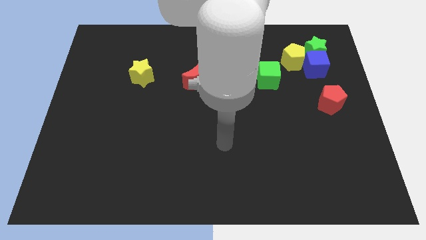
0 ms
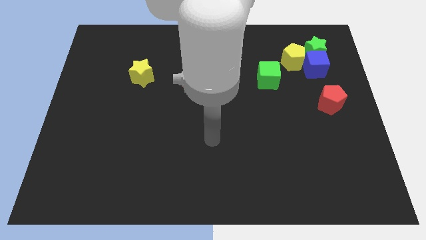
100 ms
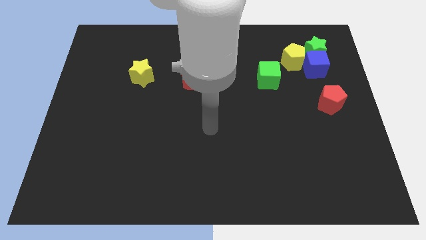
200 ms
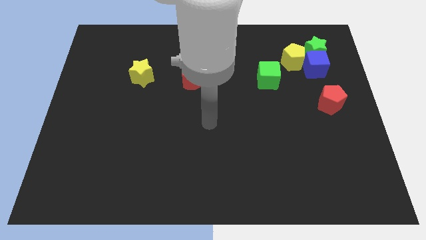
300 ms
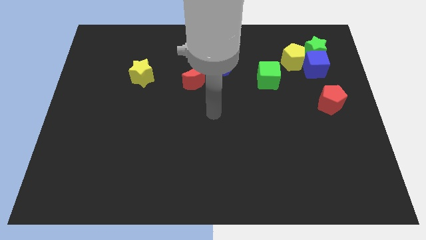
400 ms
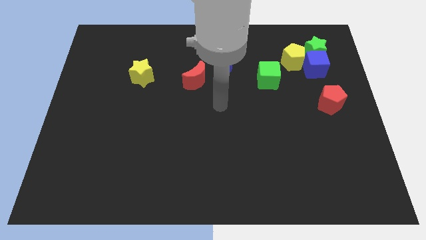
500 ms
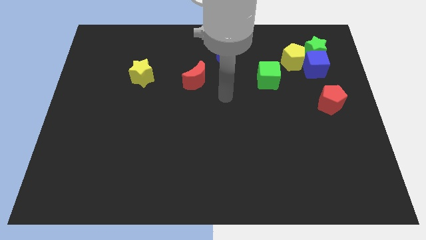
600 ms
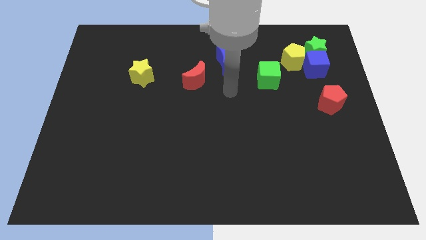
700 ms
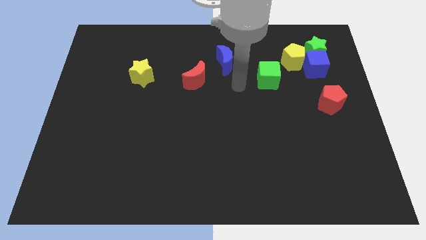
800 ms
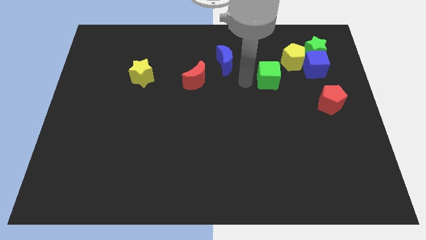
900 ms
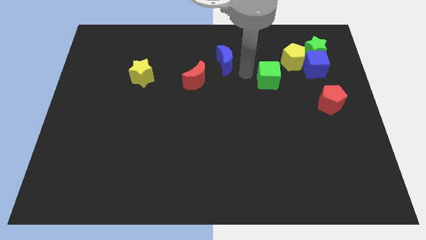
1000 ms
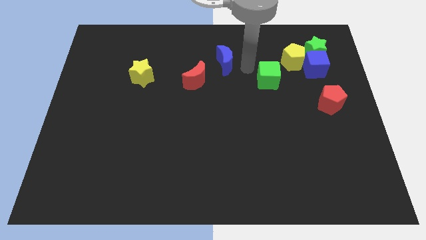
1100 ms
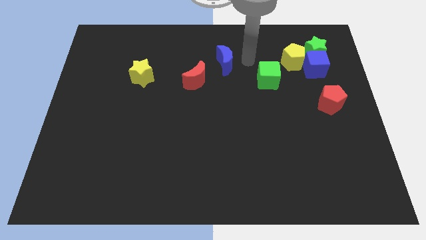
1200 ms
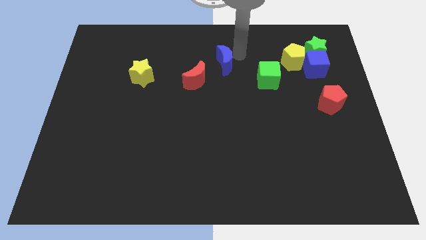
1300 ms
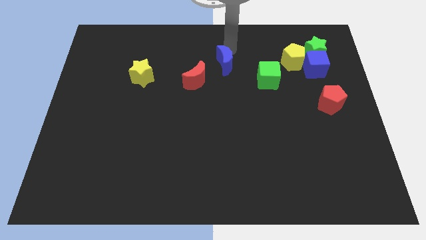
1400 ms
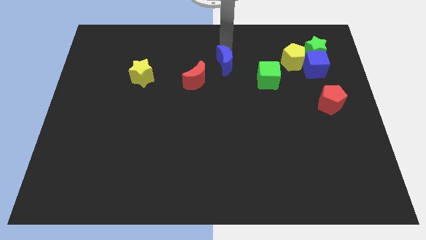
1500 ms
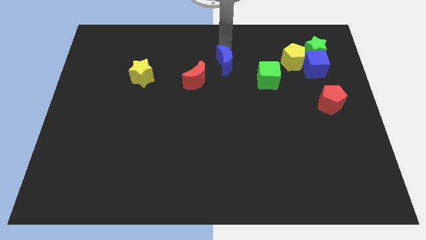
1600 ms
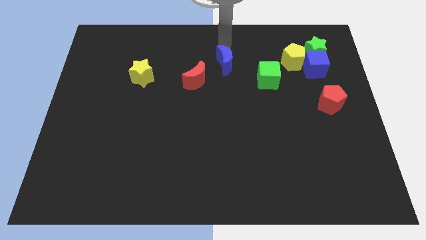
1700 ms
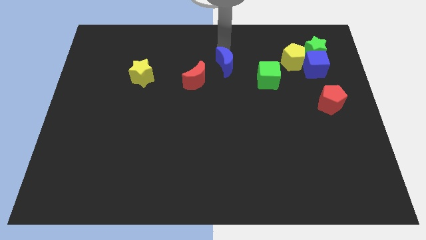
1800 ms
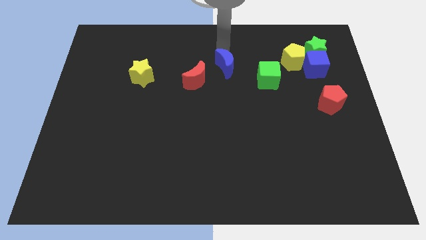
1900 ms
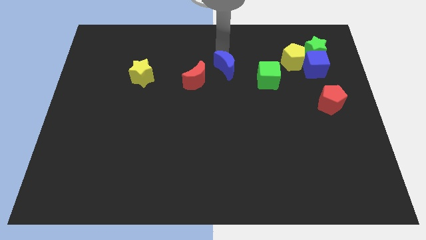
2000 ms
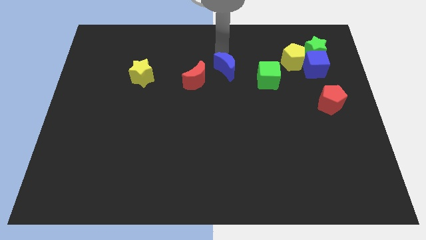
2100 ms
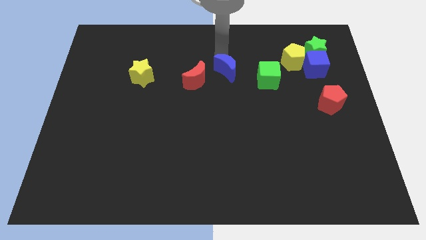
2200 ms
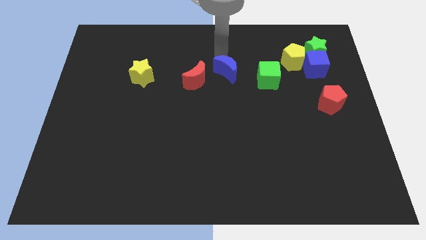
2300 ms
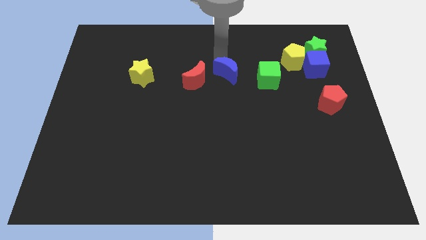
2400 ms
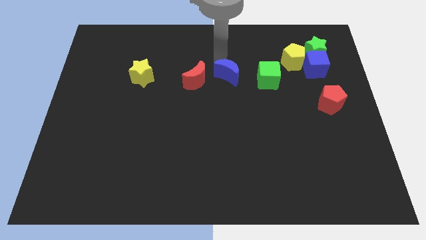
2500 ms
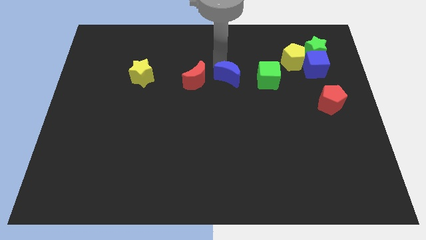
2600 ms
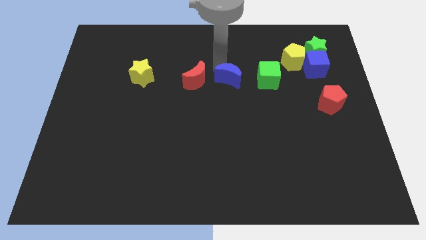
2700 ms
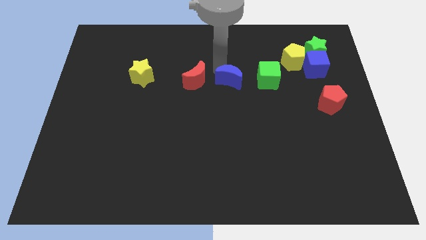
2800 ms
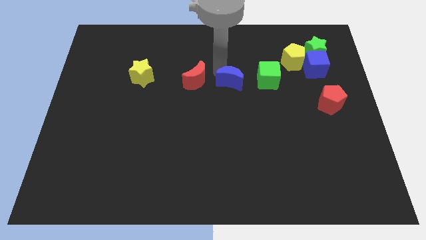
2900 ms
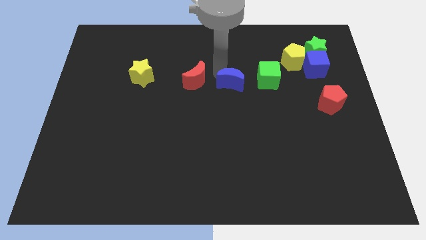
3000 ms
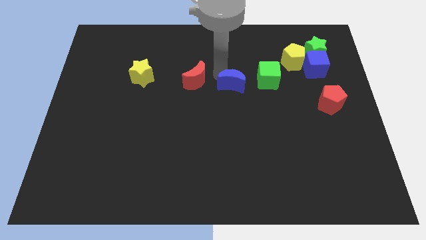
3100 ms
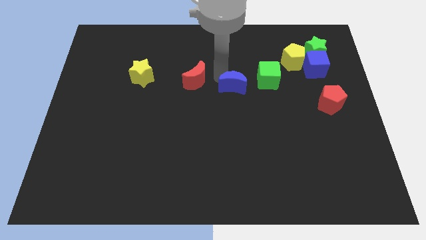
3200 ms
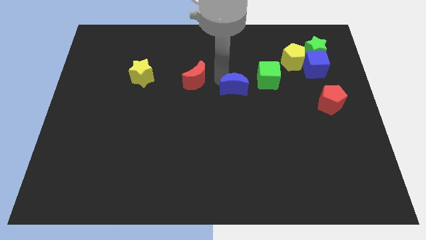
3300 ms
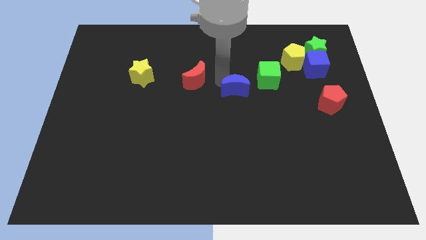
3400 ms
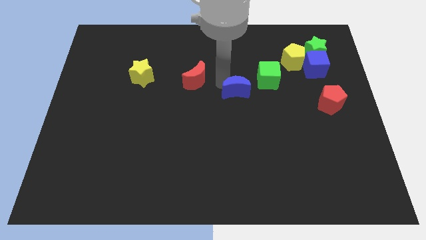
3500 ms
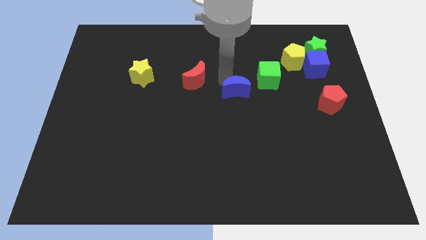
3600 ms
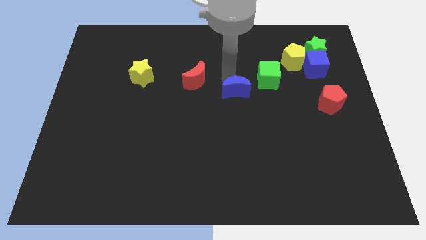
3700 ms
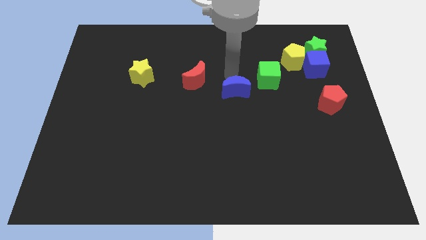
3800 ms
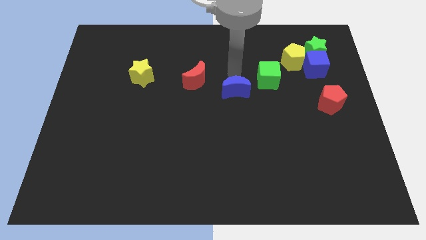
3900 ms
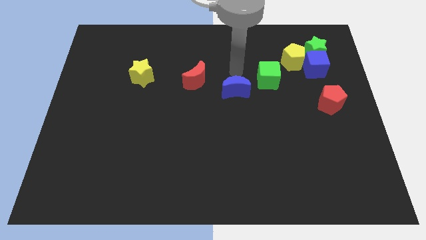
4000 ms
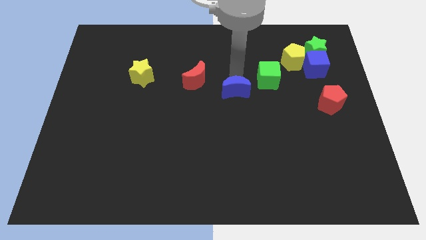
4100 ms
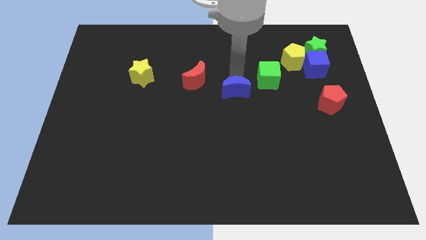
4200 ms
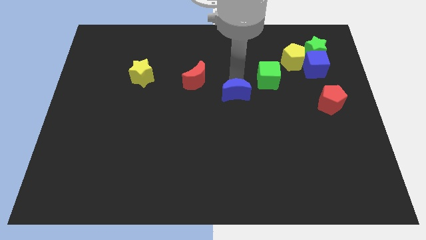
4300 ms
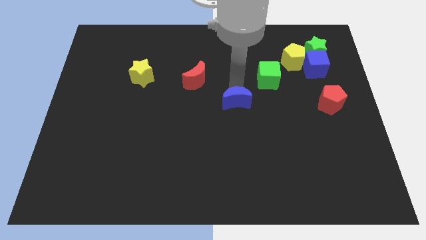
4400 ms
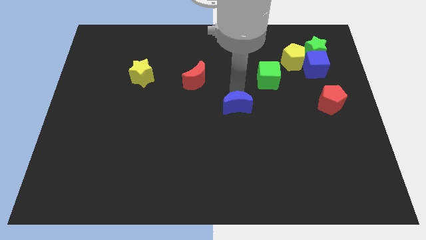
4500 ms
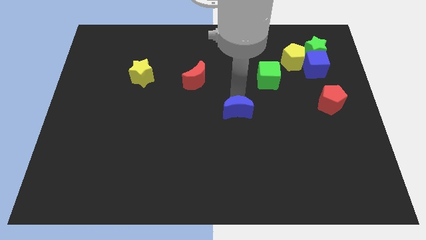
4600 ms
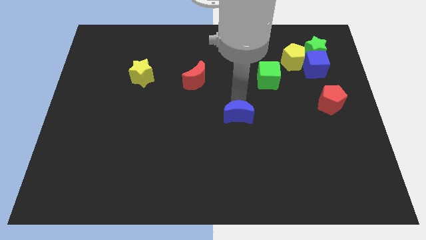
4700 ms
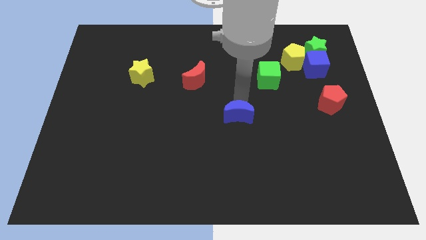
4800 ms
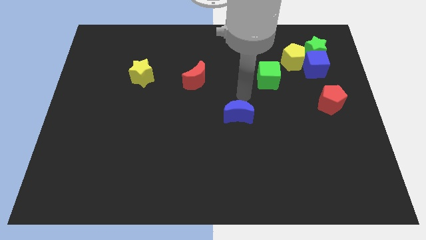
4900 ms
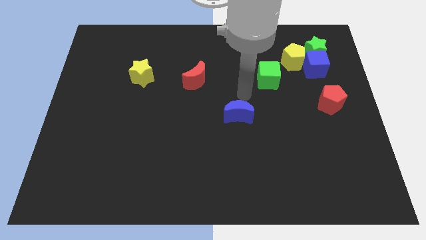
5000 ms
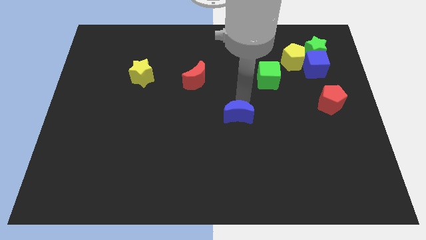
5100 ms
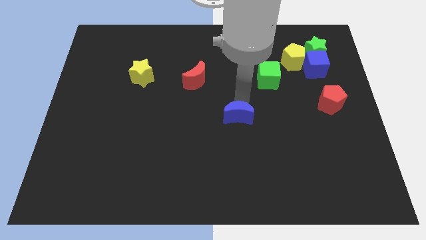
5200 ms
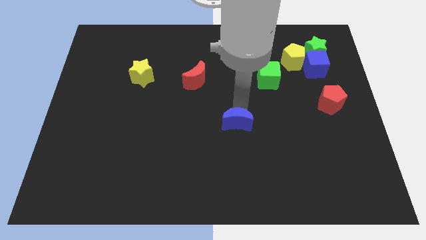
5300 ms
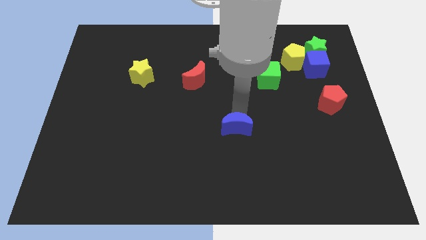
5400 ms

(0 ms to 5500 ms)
push the blue moon down

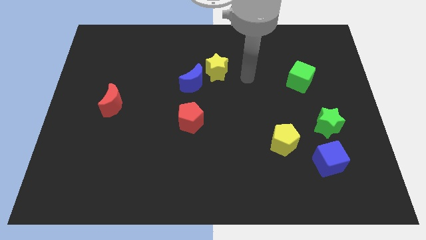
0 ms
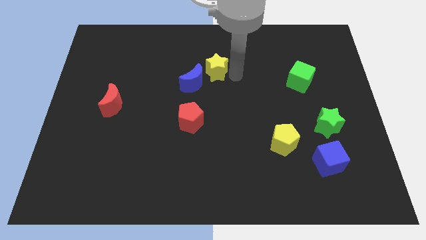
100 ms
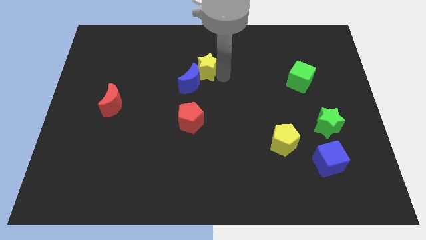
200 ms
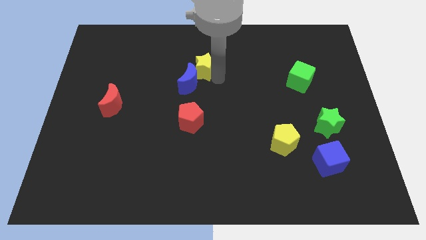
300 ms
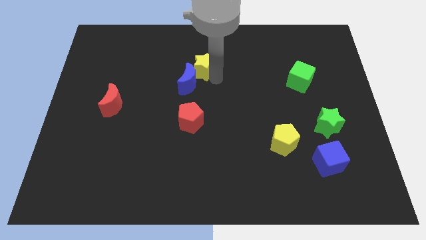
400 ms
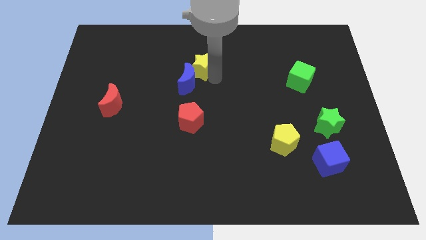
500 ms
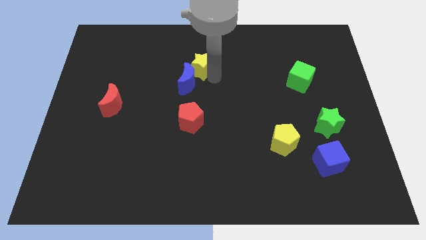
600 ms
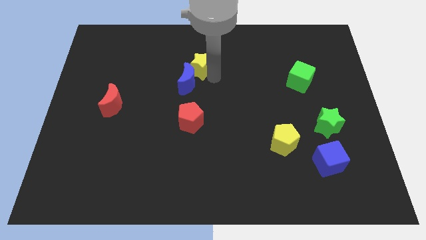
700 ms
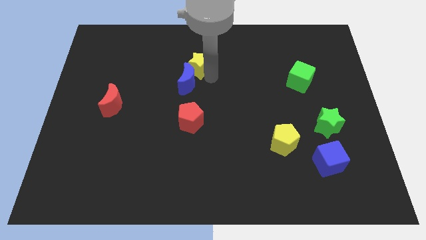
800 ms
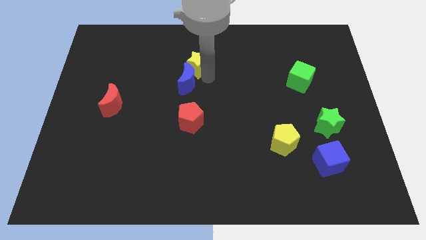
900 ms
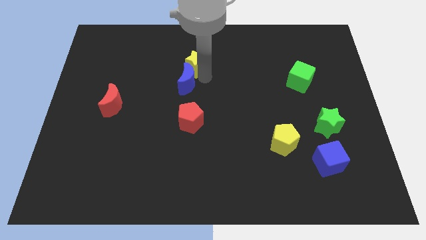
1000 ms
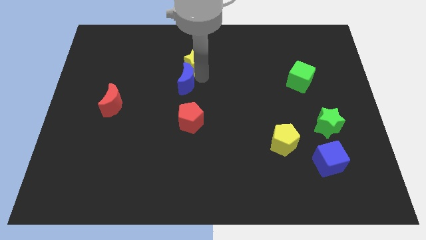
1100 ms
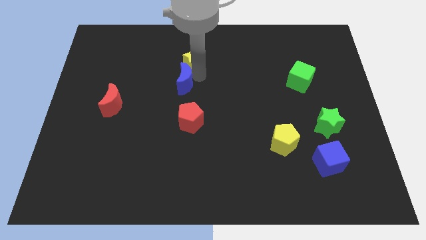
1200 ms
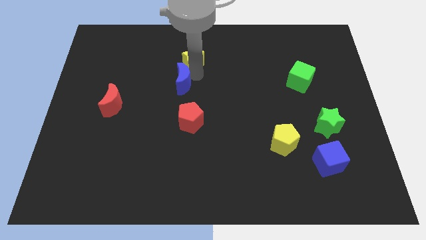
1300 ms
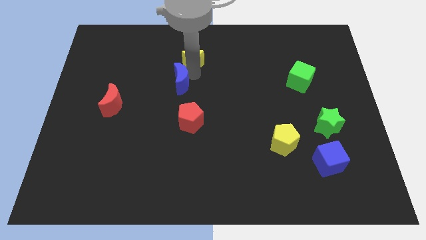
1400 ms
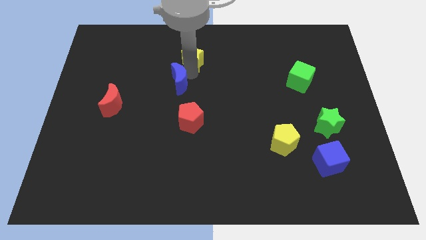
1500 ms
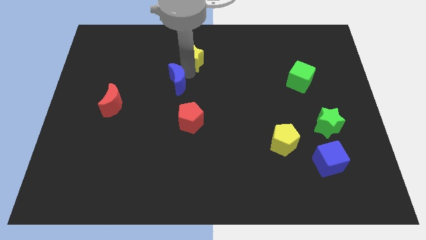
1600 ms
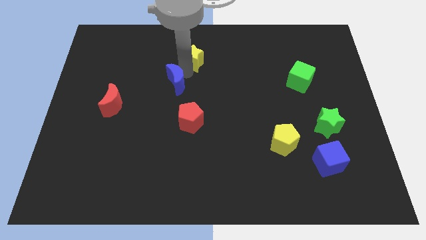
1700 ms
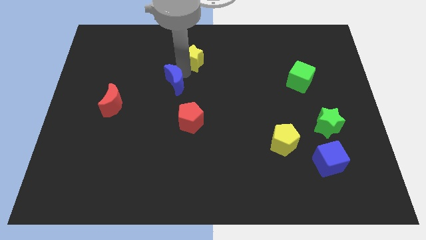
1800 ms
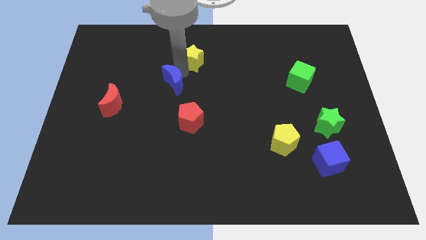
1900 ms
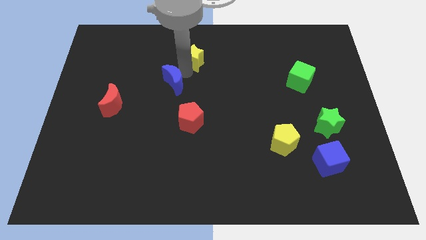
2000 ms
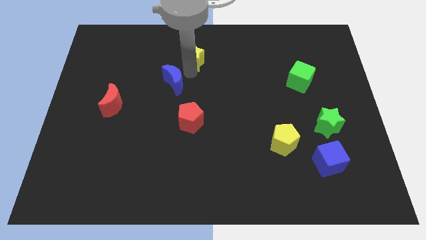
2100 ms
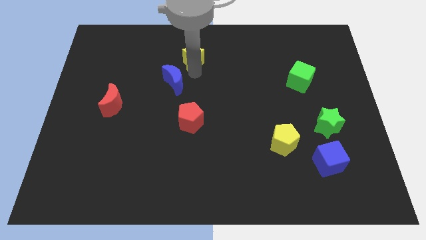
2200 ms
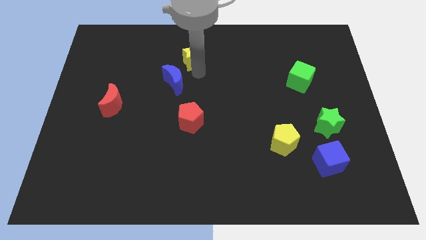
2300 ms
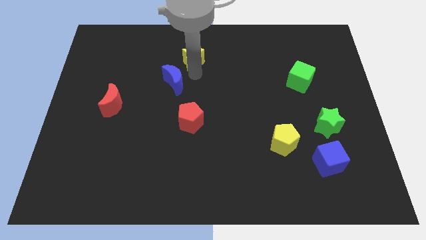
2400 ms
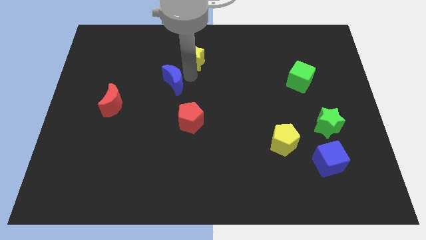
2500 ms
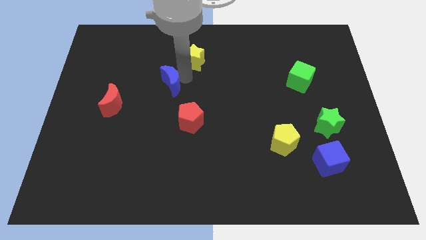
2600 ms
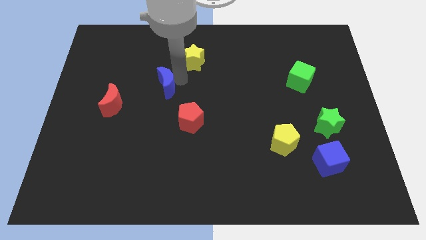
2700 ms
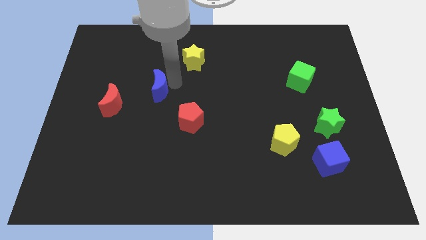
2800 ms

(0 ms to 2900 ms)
slide the blue moon to the left somewhat

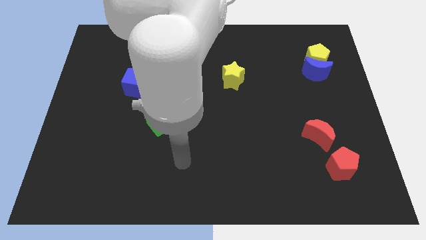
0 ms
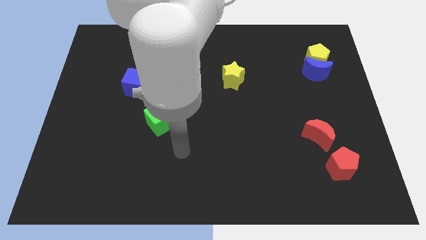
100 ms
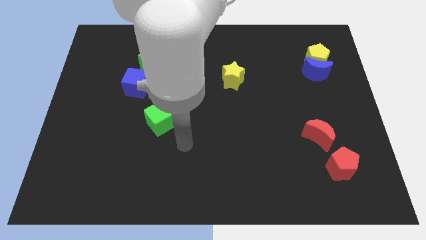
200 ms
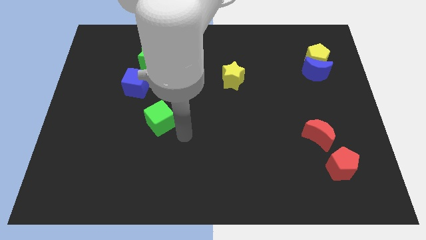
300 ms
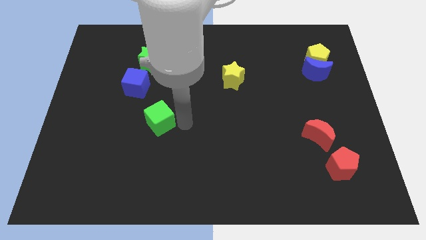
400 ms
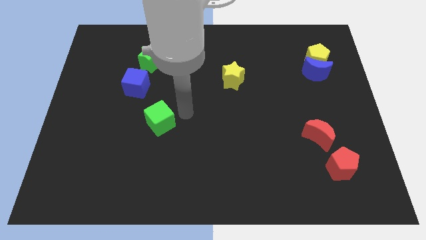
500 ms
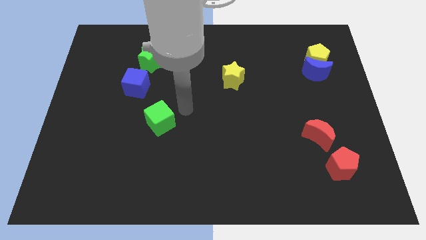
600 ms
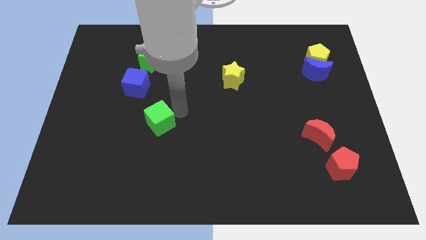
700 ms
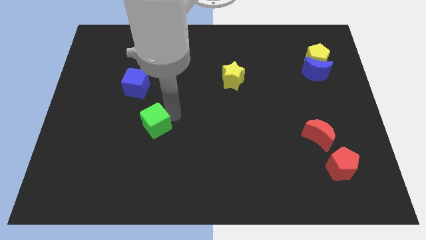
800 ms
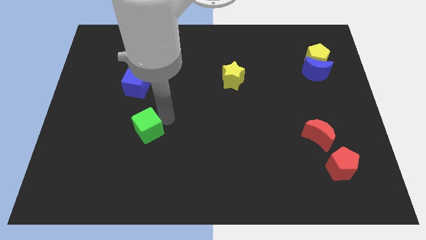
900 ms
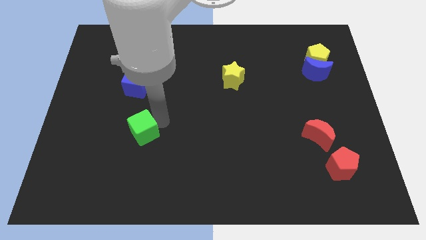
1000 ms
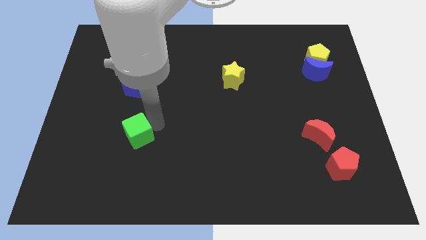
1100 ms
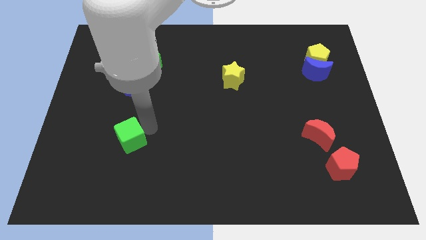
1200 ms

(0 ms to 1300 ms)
slightly push the green cube down and left diagonally
